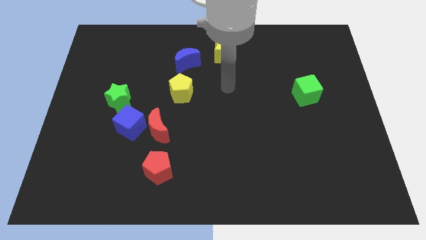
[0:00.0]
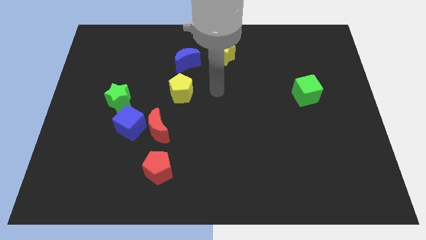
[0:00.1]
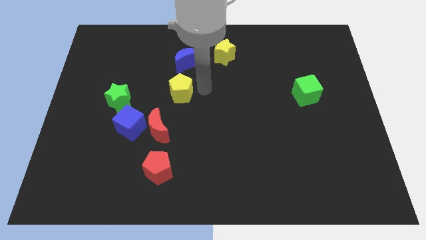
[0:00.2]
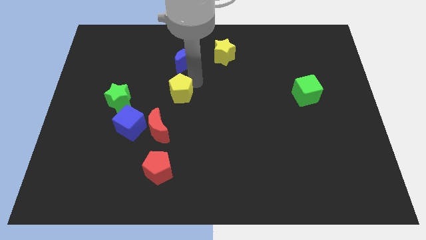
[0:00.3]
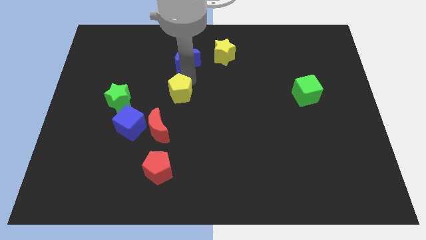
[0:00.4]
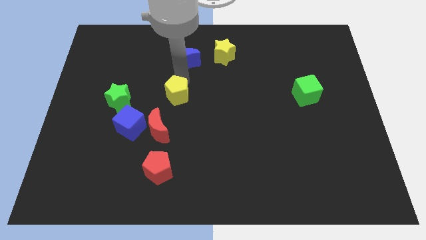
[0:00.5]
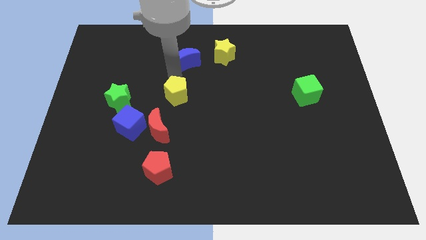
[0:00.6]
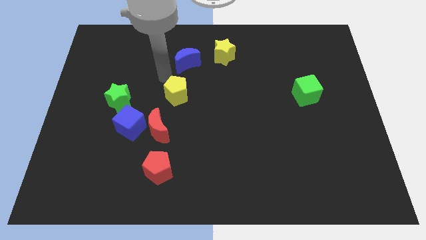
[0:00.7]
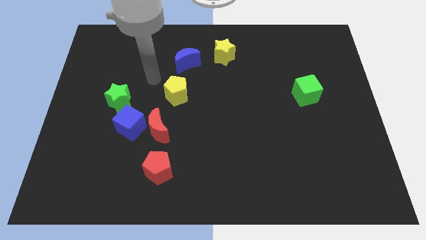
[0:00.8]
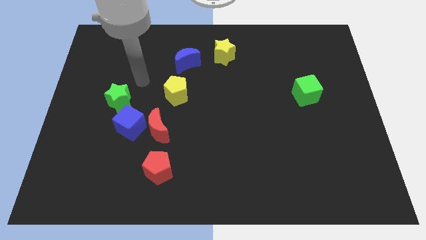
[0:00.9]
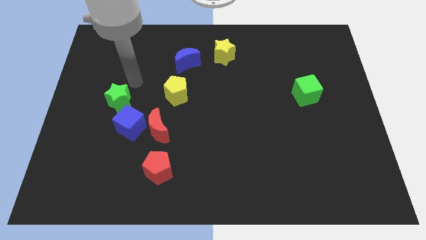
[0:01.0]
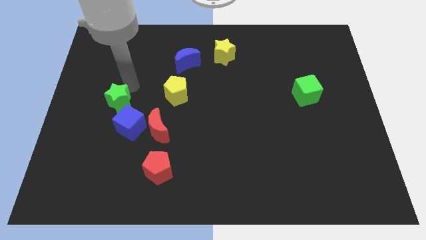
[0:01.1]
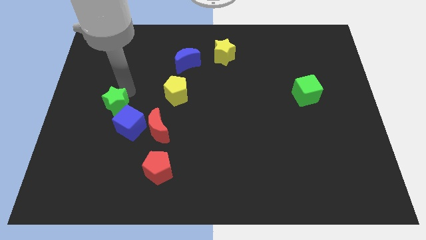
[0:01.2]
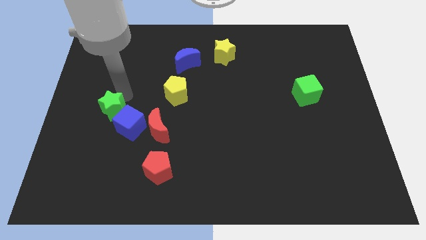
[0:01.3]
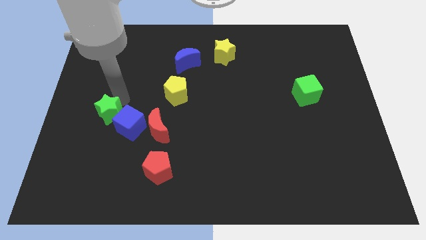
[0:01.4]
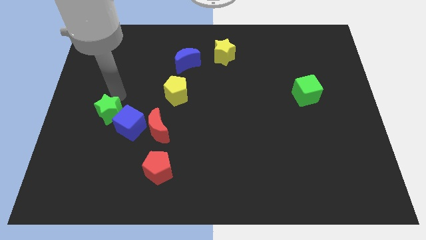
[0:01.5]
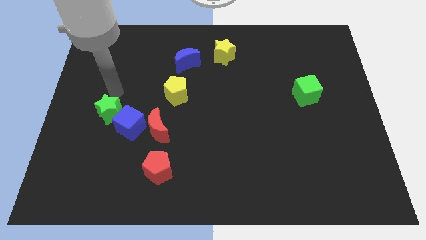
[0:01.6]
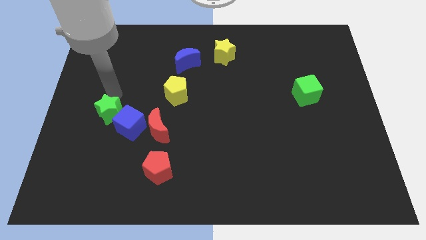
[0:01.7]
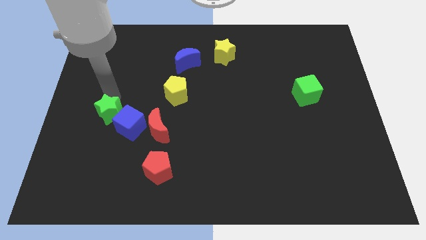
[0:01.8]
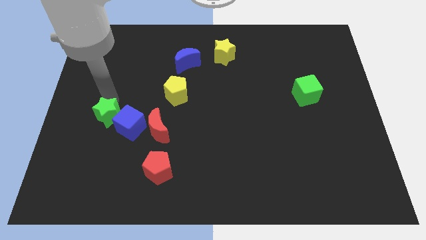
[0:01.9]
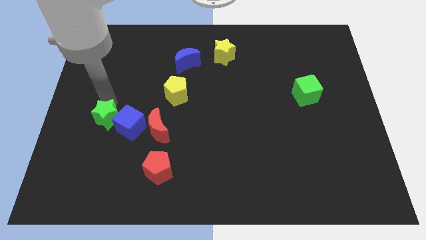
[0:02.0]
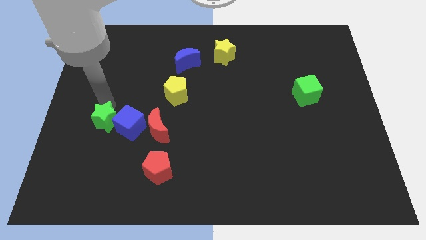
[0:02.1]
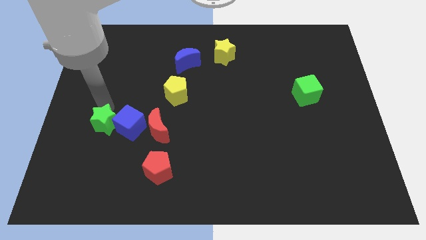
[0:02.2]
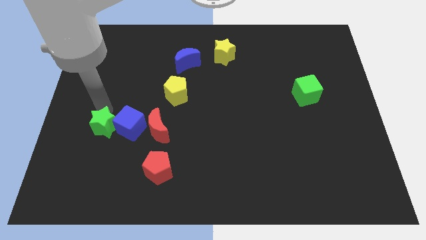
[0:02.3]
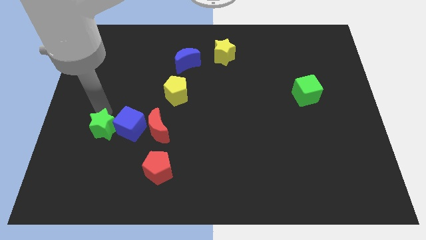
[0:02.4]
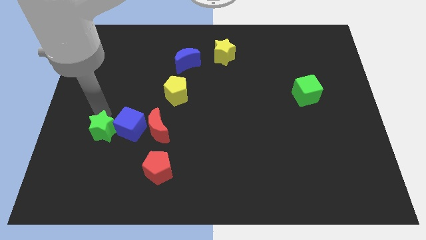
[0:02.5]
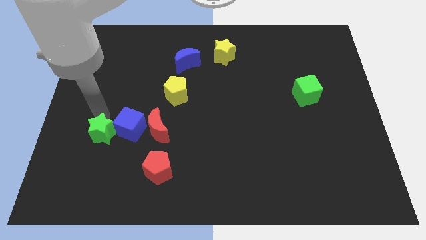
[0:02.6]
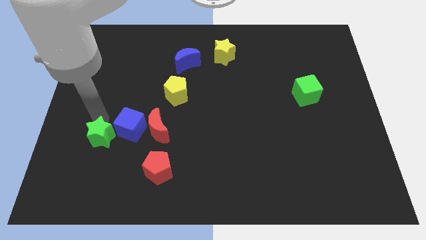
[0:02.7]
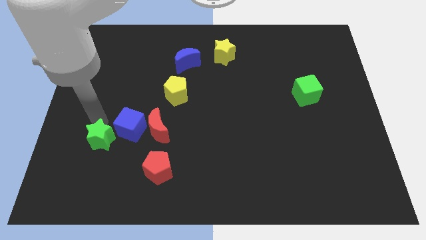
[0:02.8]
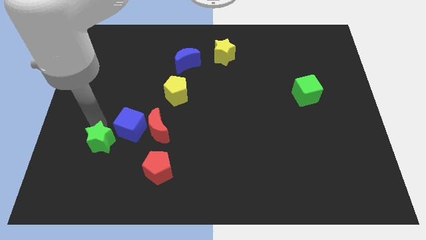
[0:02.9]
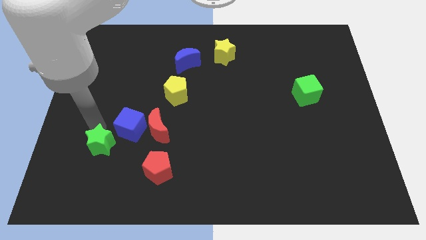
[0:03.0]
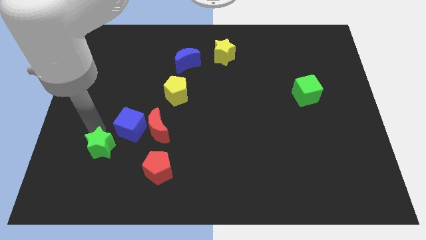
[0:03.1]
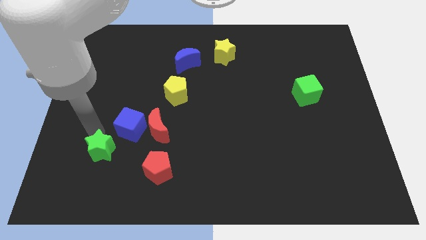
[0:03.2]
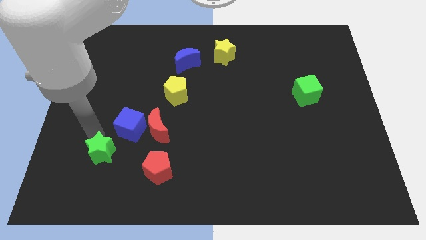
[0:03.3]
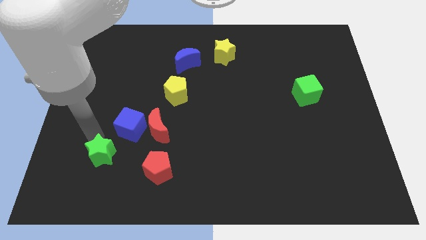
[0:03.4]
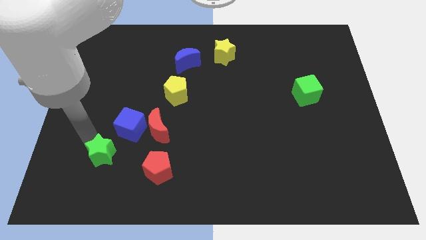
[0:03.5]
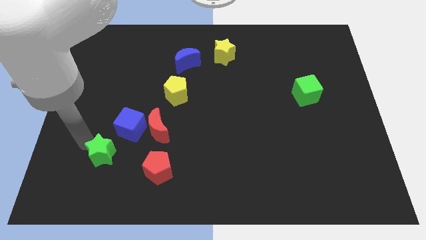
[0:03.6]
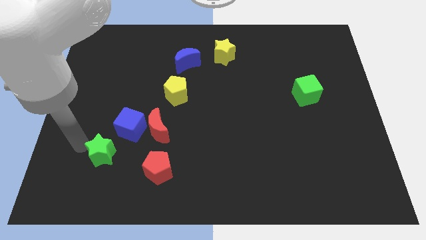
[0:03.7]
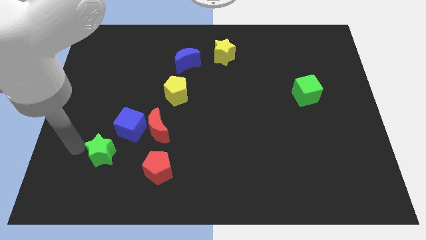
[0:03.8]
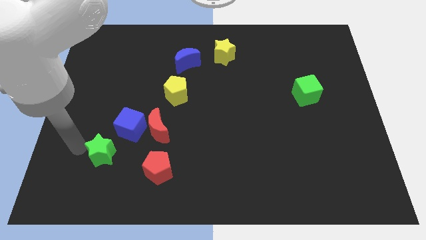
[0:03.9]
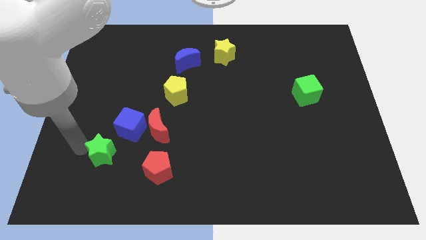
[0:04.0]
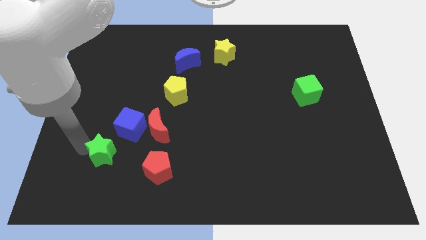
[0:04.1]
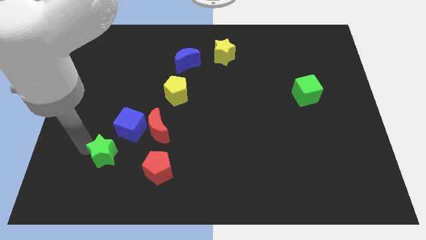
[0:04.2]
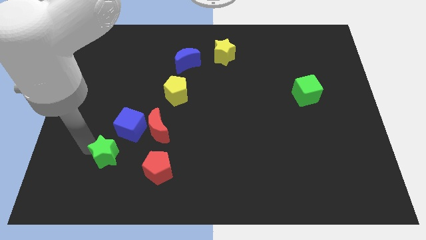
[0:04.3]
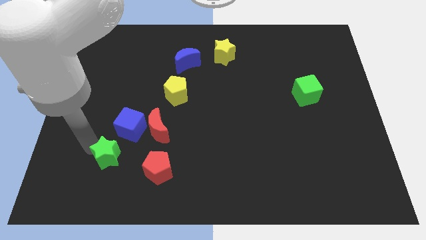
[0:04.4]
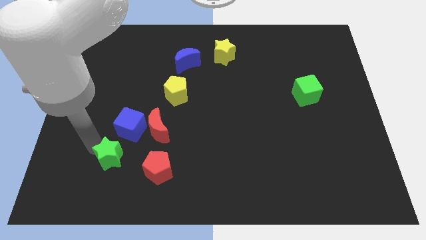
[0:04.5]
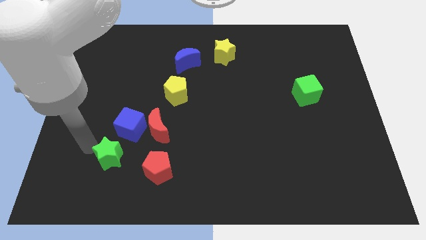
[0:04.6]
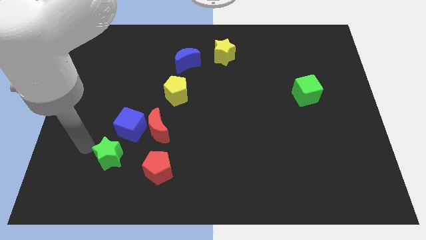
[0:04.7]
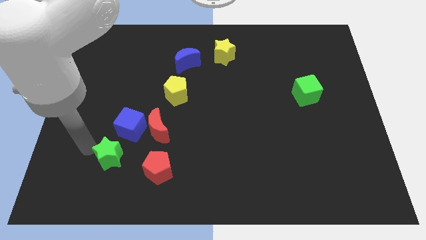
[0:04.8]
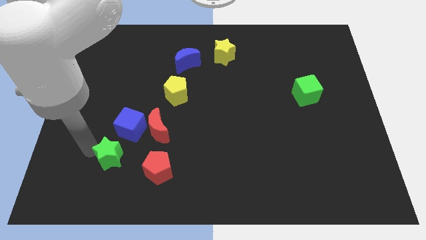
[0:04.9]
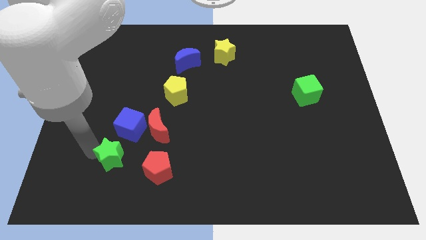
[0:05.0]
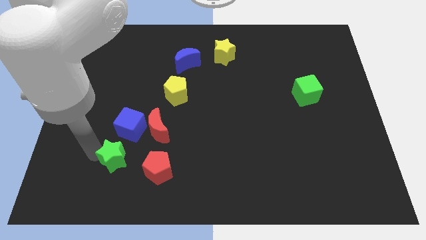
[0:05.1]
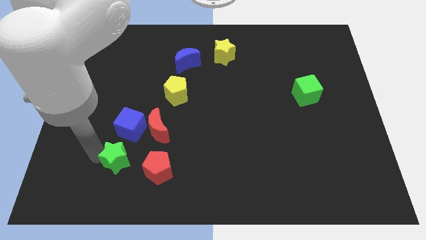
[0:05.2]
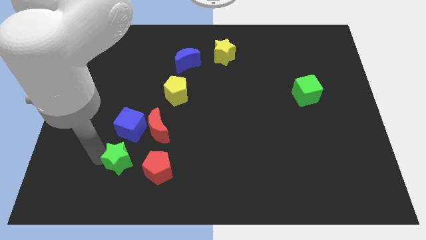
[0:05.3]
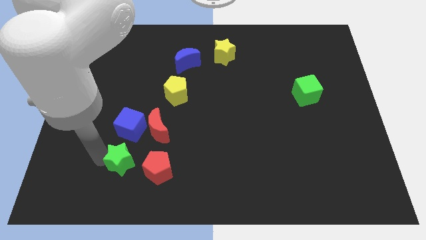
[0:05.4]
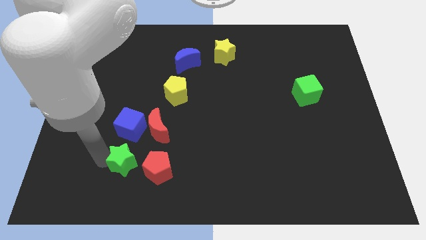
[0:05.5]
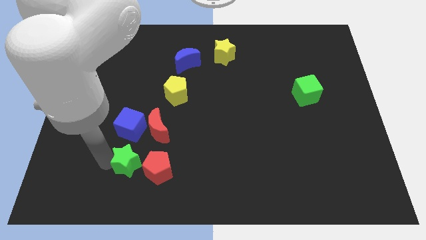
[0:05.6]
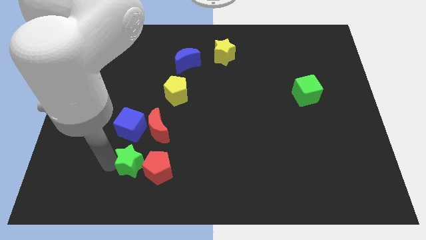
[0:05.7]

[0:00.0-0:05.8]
slide the green star to the red pentagon

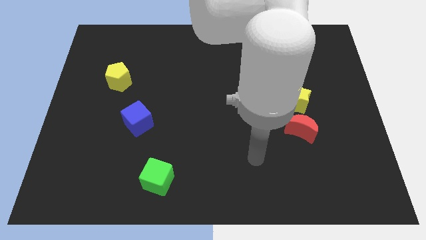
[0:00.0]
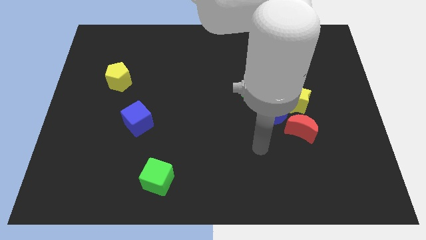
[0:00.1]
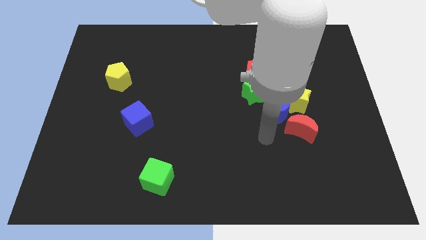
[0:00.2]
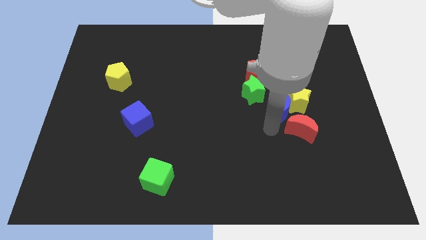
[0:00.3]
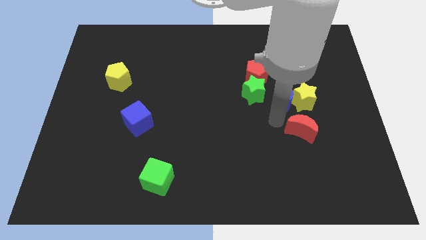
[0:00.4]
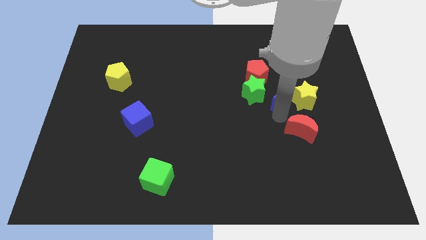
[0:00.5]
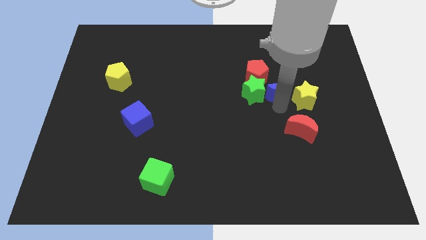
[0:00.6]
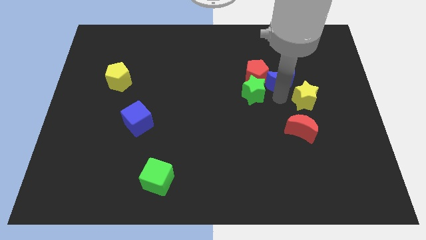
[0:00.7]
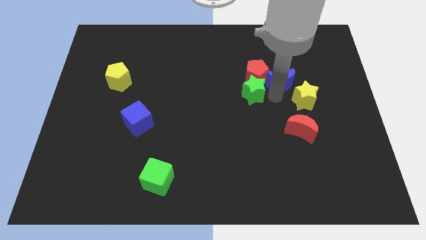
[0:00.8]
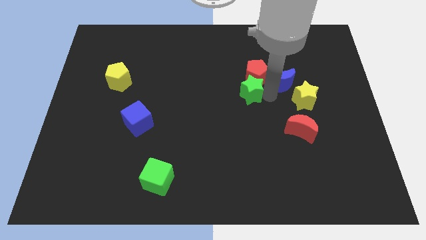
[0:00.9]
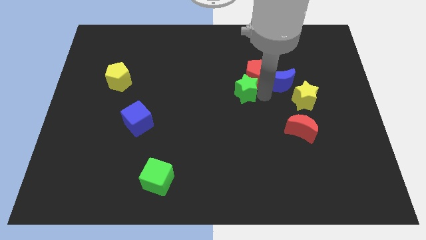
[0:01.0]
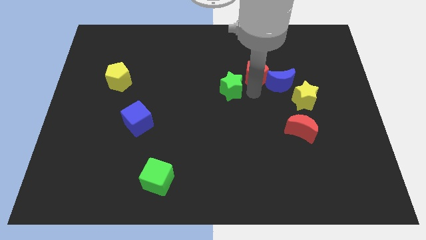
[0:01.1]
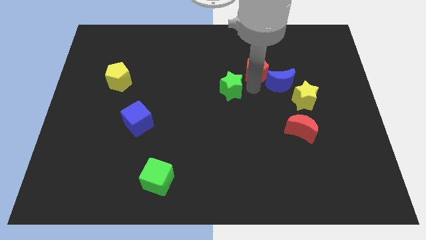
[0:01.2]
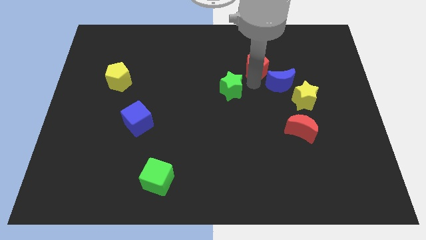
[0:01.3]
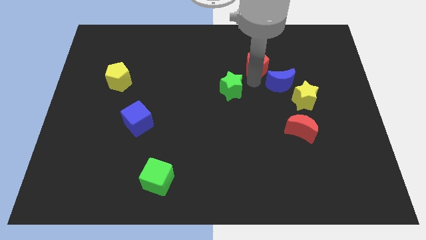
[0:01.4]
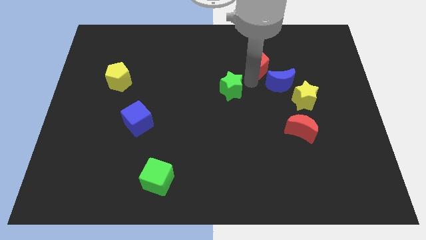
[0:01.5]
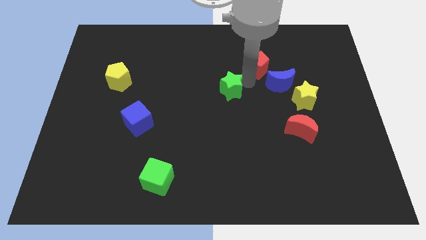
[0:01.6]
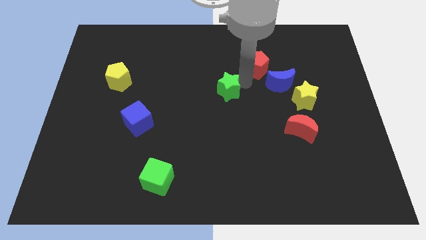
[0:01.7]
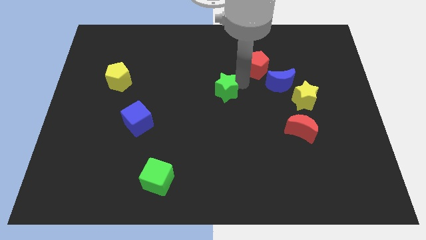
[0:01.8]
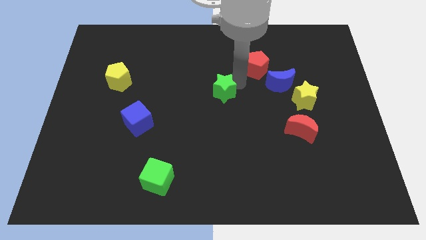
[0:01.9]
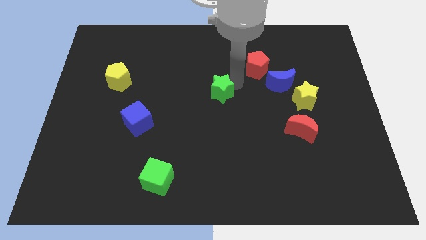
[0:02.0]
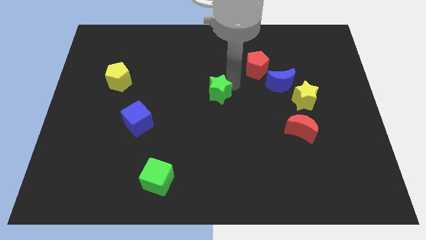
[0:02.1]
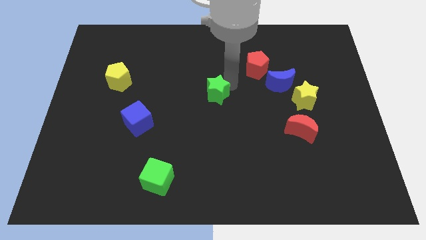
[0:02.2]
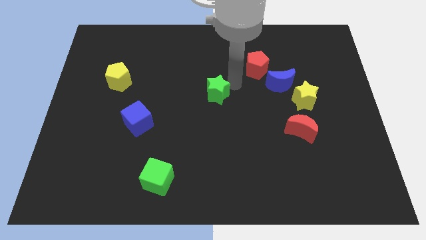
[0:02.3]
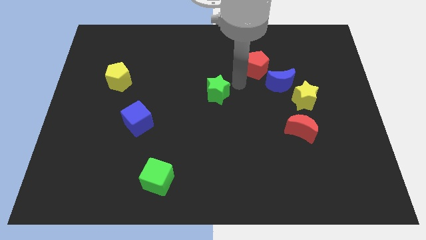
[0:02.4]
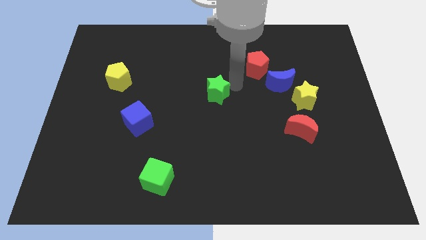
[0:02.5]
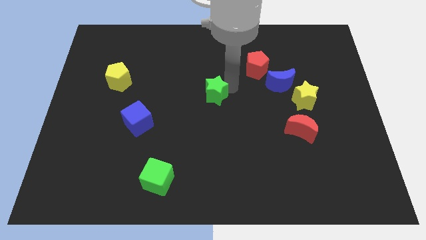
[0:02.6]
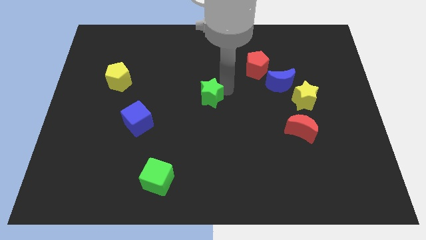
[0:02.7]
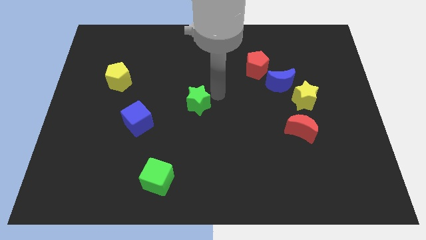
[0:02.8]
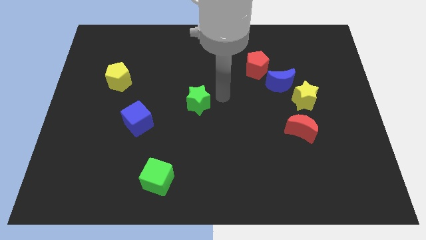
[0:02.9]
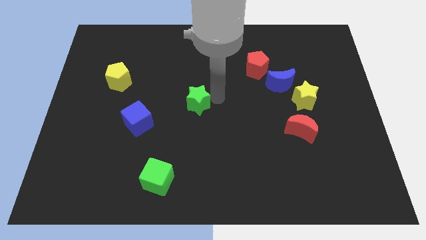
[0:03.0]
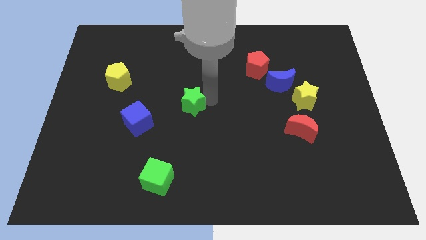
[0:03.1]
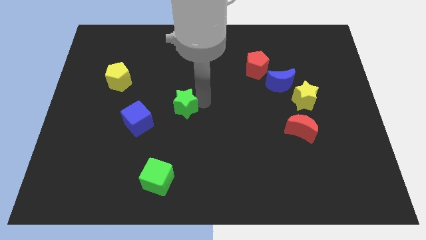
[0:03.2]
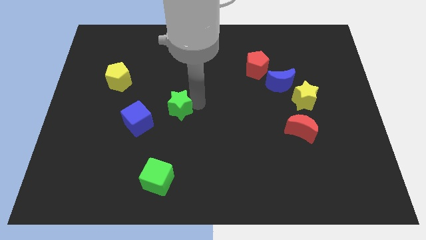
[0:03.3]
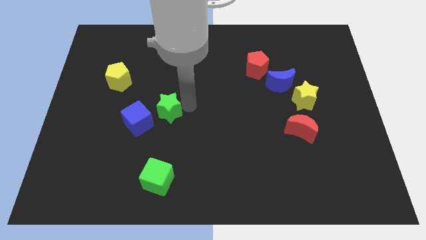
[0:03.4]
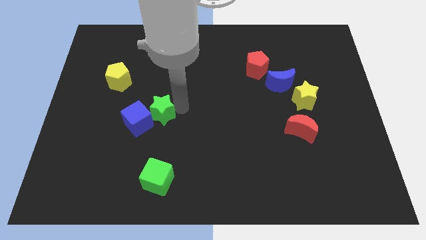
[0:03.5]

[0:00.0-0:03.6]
move the green star towards the blue cube
